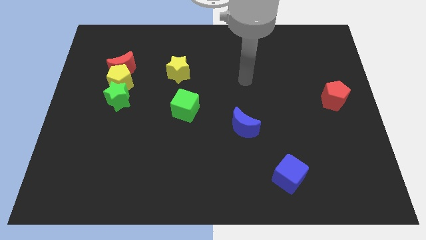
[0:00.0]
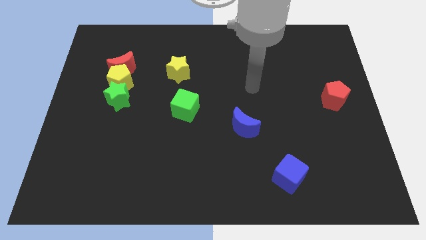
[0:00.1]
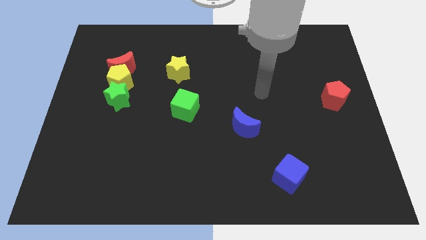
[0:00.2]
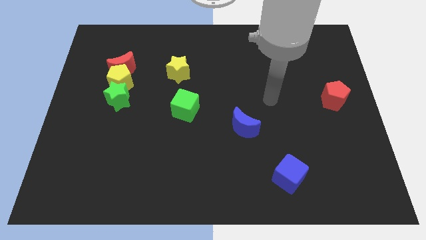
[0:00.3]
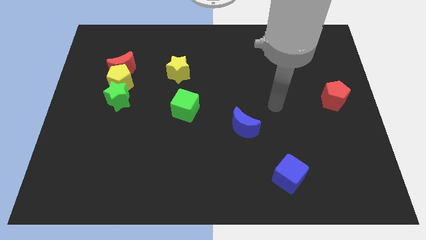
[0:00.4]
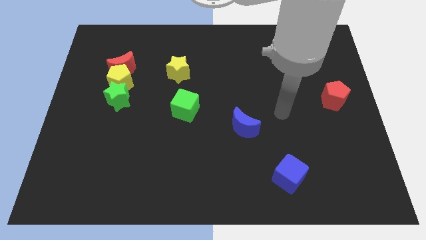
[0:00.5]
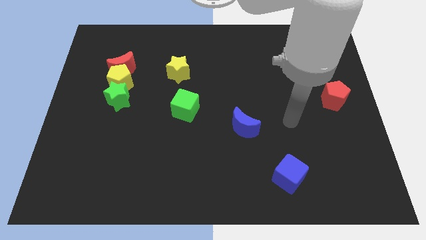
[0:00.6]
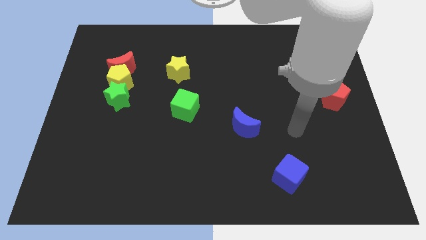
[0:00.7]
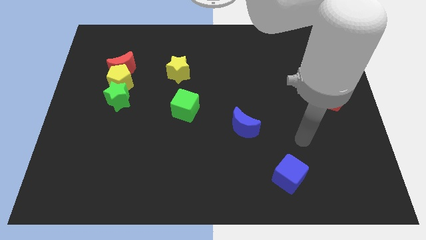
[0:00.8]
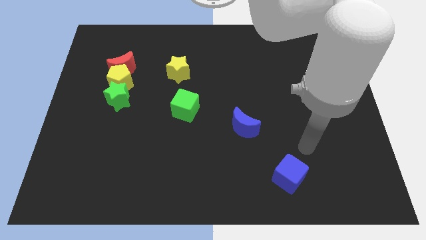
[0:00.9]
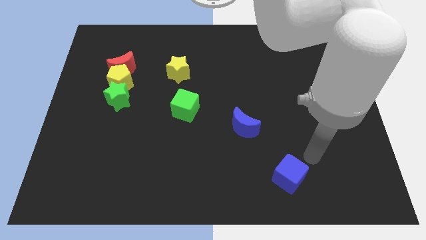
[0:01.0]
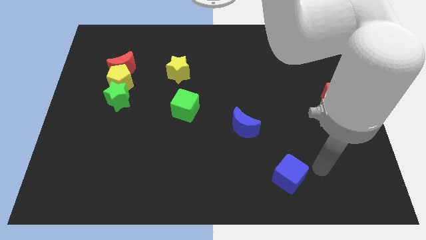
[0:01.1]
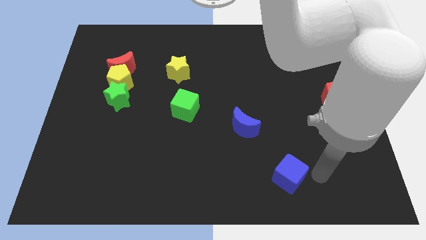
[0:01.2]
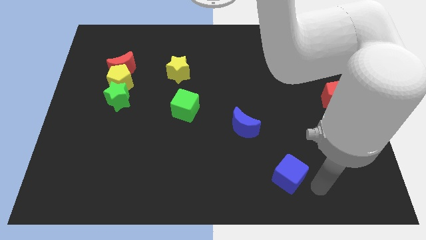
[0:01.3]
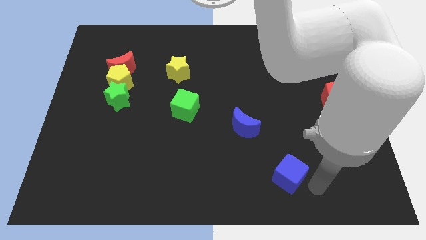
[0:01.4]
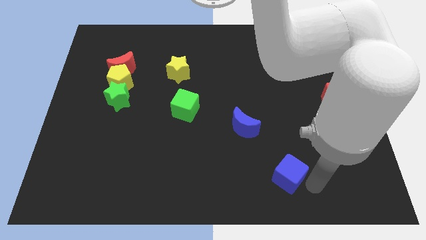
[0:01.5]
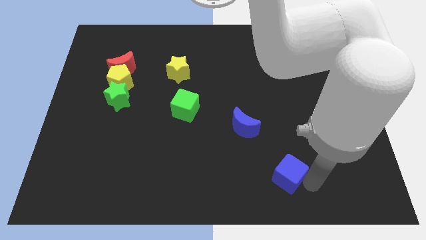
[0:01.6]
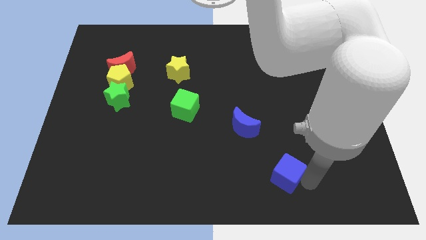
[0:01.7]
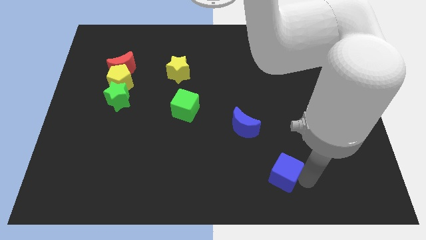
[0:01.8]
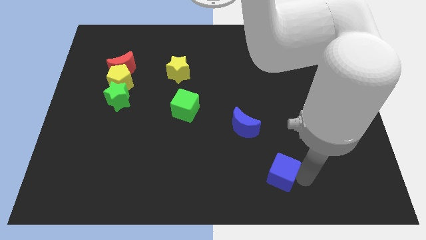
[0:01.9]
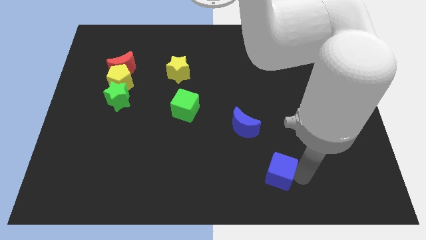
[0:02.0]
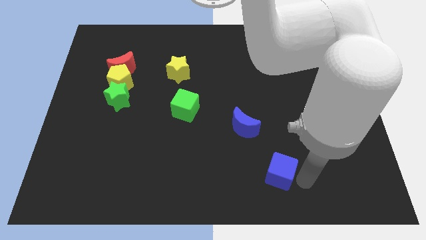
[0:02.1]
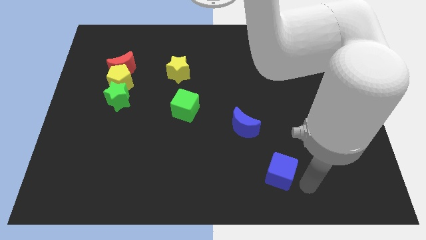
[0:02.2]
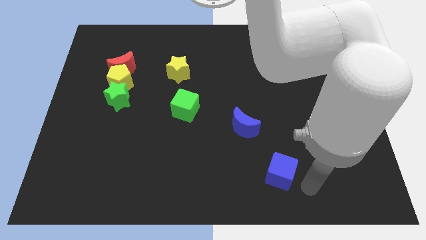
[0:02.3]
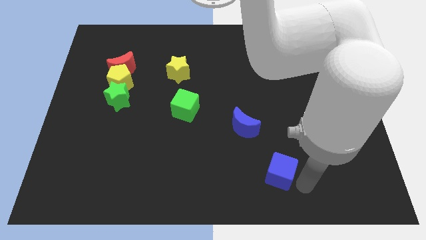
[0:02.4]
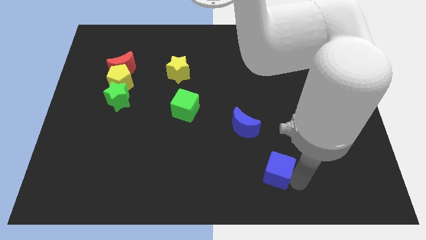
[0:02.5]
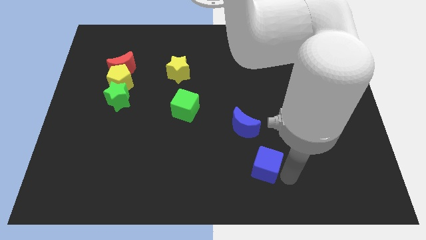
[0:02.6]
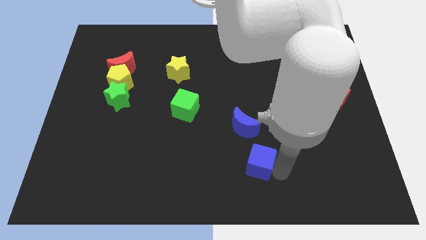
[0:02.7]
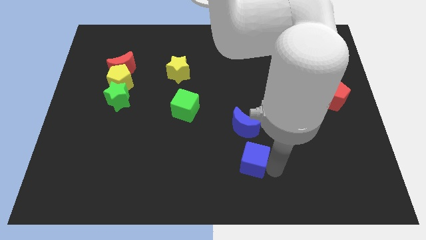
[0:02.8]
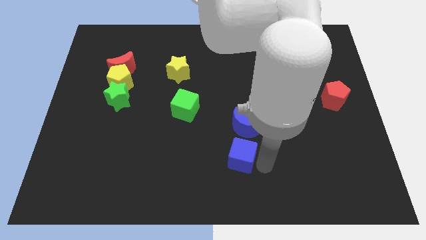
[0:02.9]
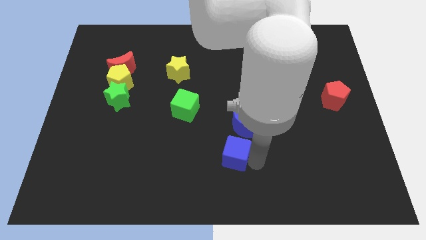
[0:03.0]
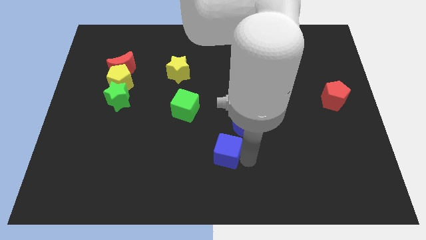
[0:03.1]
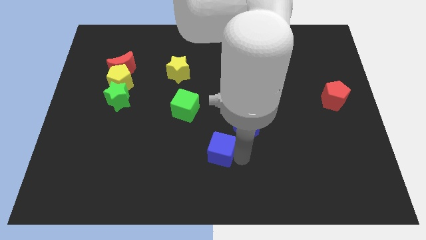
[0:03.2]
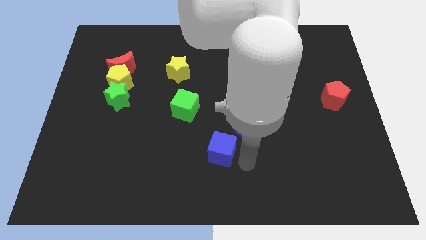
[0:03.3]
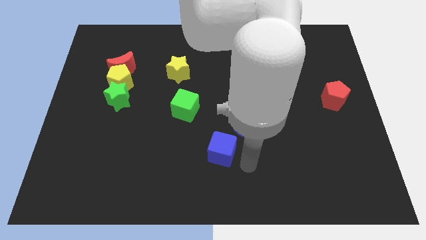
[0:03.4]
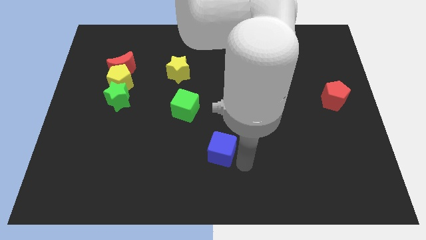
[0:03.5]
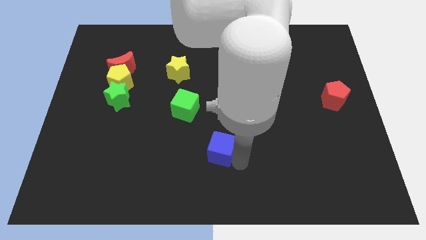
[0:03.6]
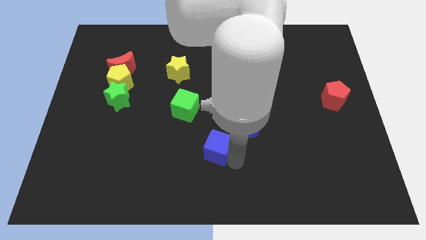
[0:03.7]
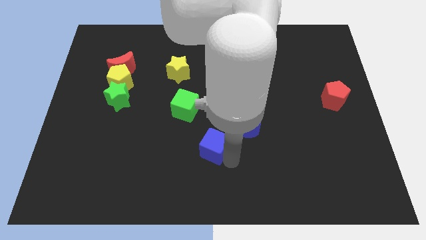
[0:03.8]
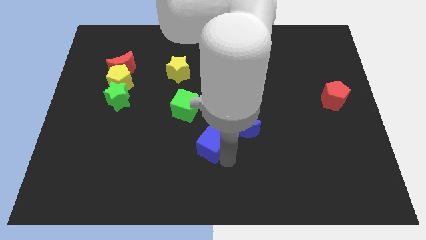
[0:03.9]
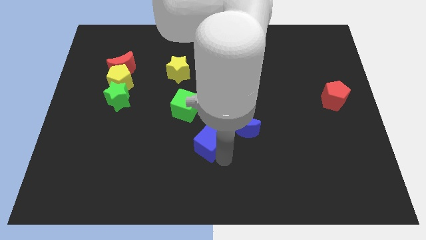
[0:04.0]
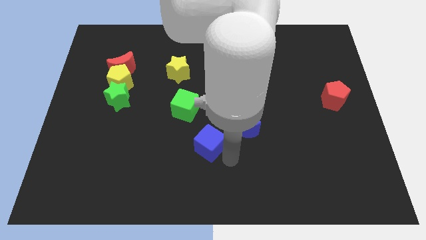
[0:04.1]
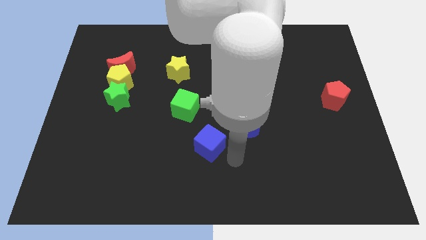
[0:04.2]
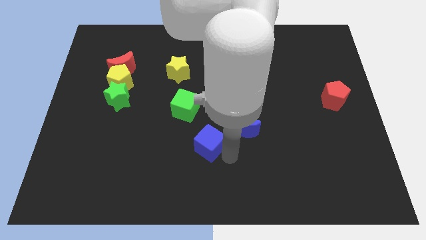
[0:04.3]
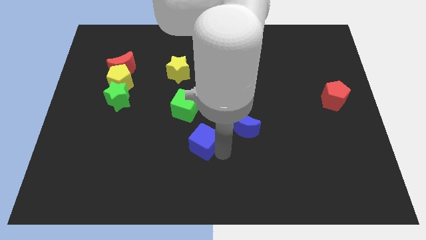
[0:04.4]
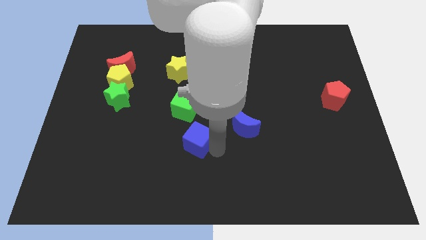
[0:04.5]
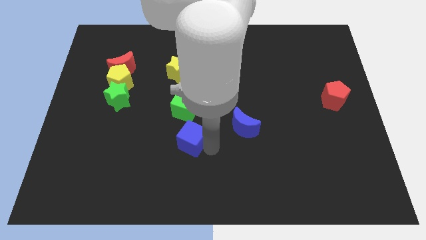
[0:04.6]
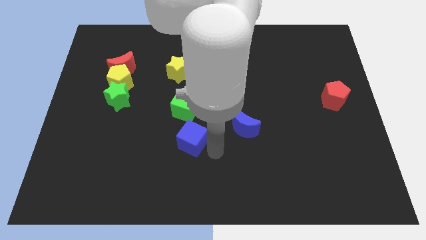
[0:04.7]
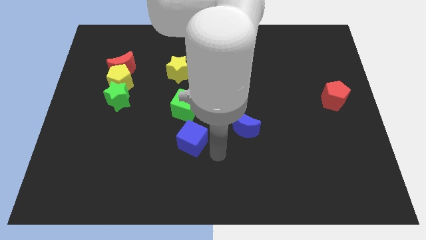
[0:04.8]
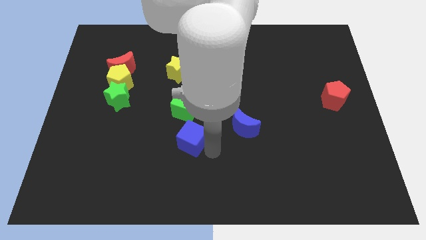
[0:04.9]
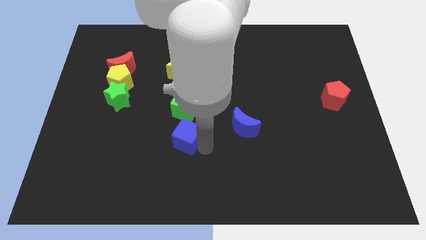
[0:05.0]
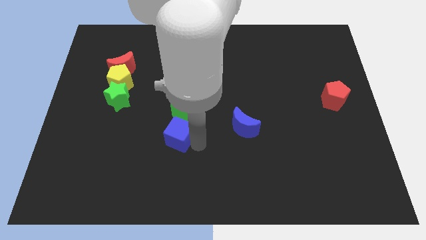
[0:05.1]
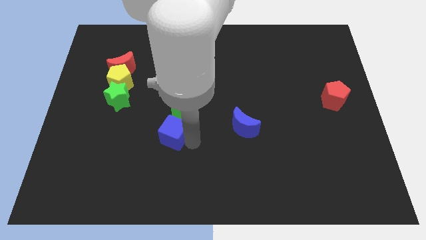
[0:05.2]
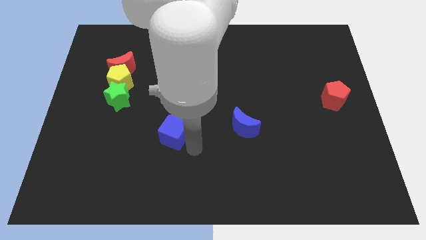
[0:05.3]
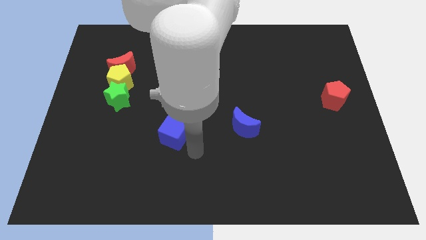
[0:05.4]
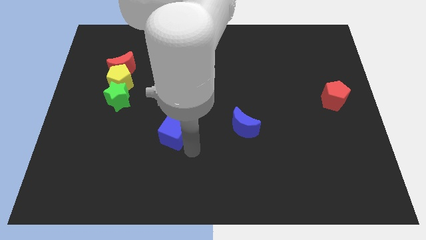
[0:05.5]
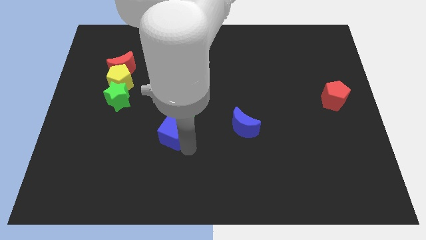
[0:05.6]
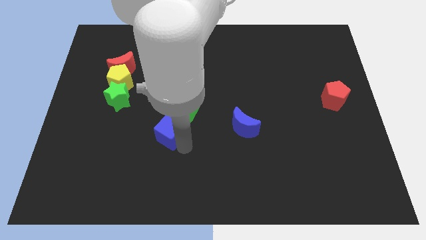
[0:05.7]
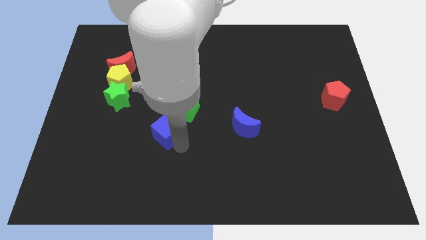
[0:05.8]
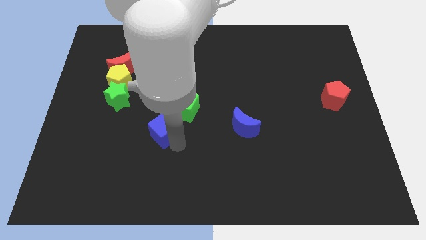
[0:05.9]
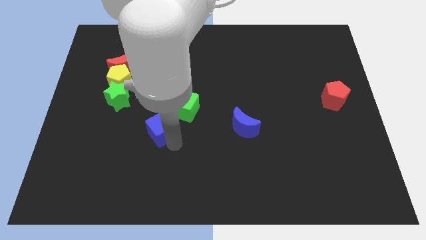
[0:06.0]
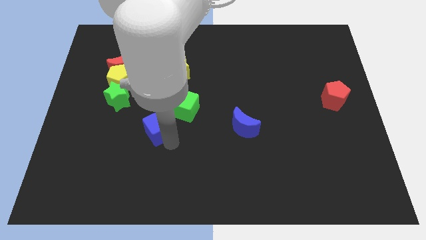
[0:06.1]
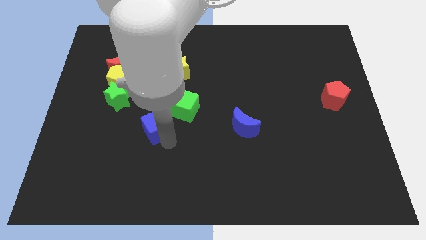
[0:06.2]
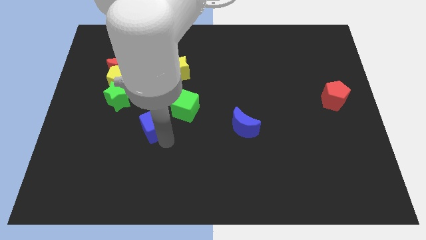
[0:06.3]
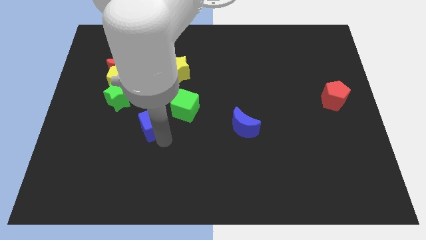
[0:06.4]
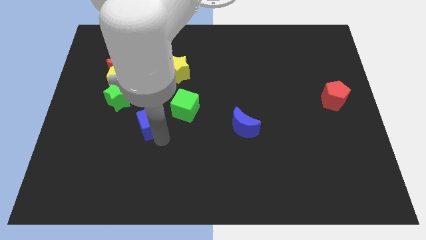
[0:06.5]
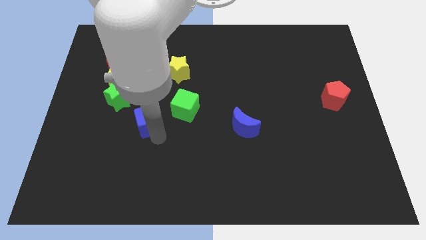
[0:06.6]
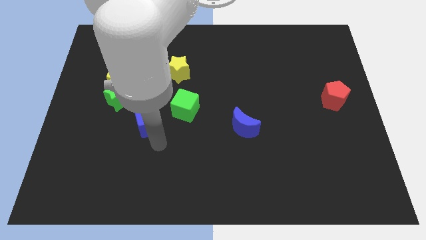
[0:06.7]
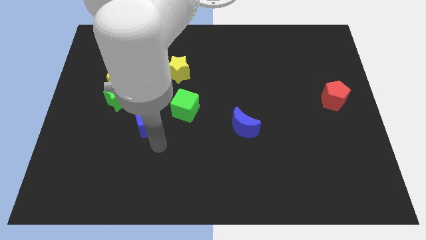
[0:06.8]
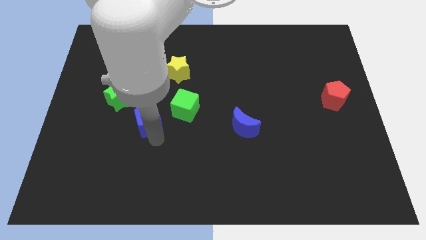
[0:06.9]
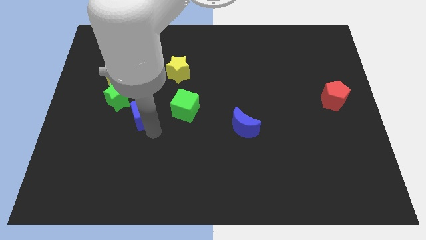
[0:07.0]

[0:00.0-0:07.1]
put the blue cube to the bottom right of the yellow pentagon

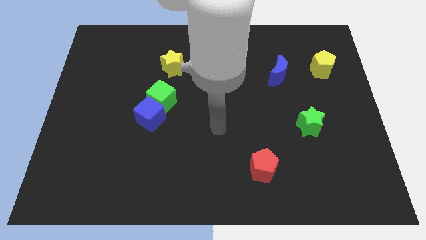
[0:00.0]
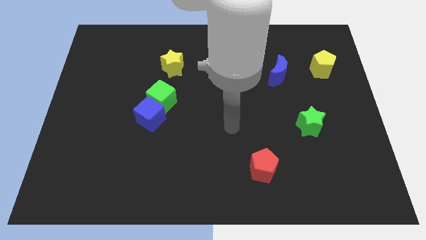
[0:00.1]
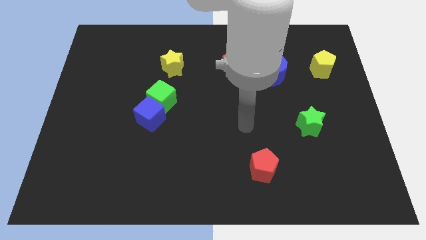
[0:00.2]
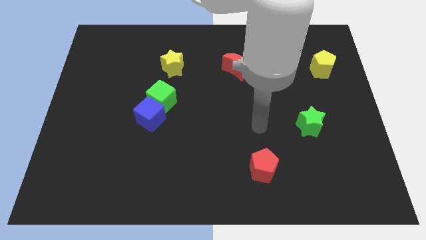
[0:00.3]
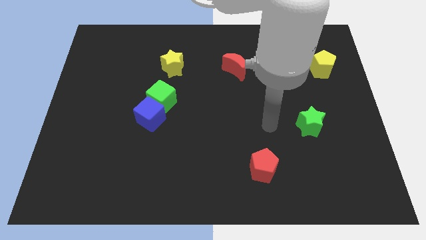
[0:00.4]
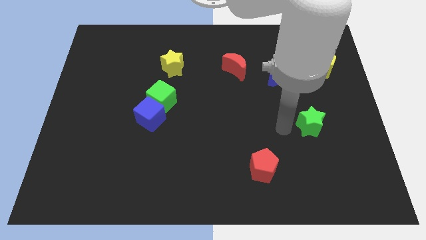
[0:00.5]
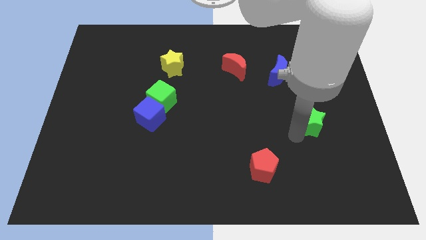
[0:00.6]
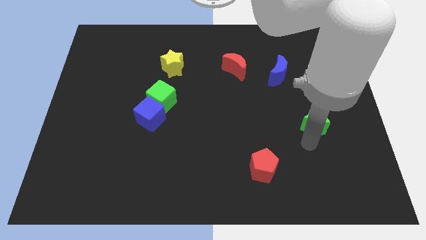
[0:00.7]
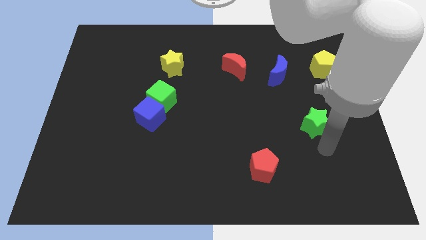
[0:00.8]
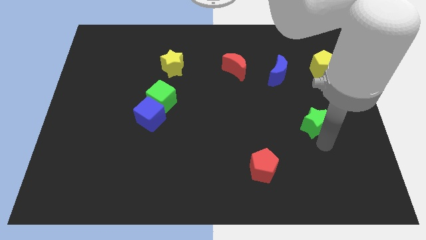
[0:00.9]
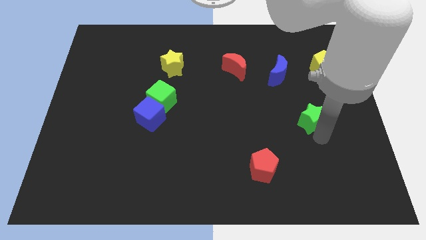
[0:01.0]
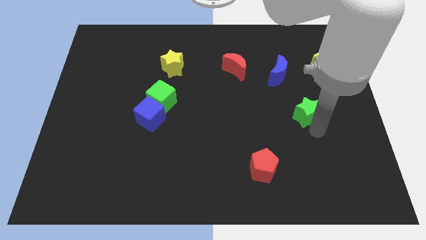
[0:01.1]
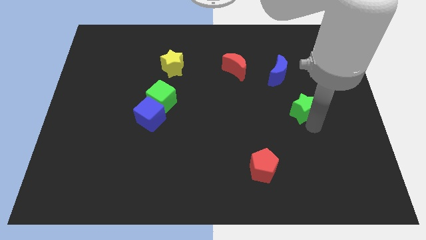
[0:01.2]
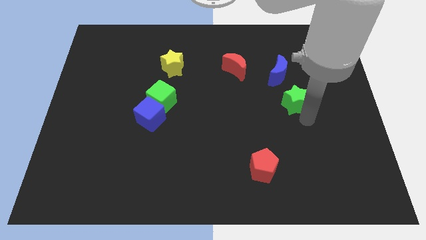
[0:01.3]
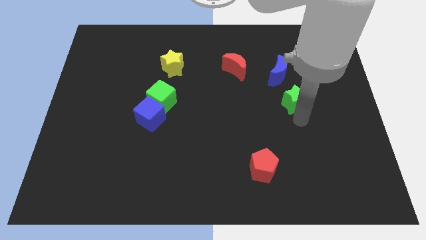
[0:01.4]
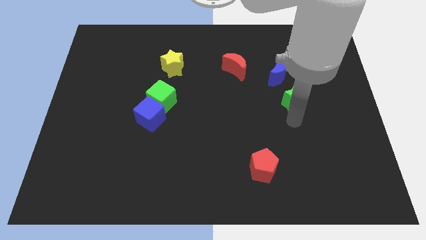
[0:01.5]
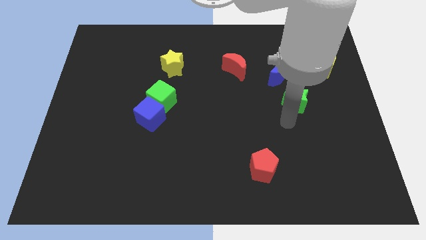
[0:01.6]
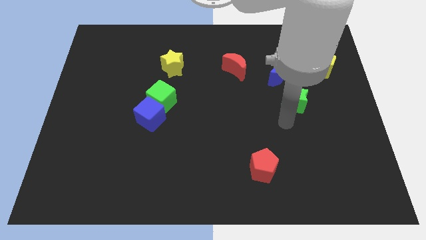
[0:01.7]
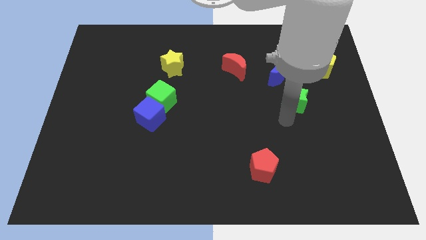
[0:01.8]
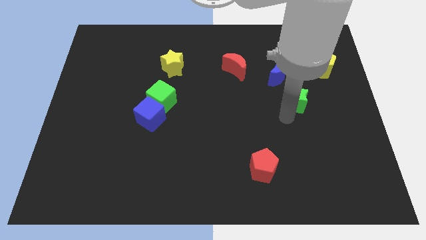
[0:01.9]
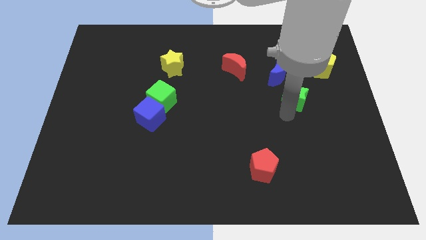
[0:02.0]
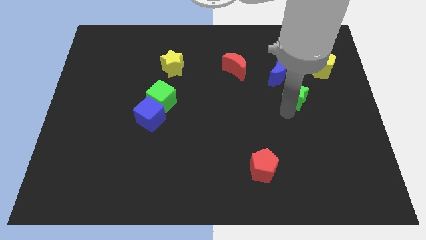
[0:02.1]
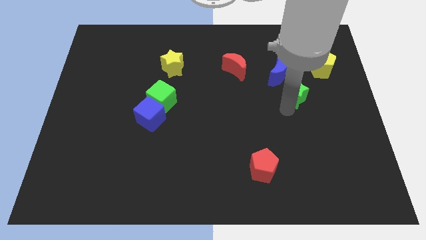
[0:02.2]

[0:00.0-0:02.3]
move the green star to the bottom left side of the yellow pentagon
